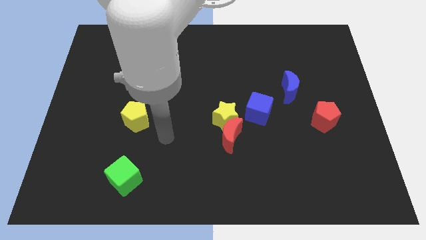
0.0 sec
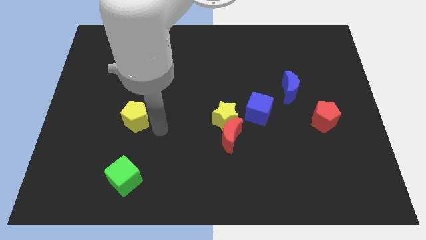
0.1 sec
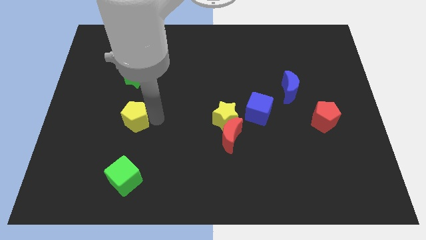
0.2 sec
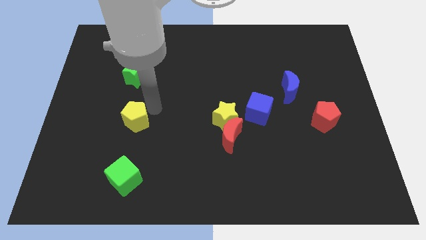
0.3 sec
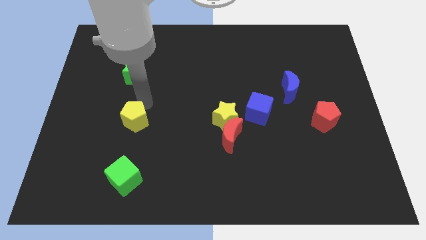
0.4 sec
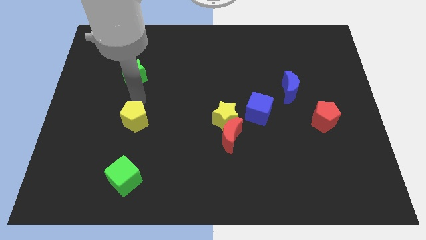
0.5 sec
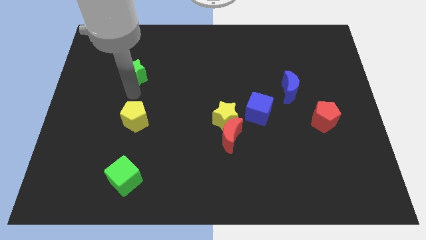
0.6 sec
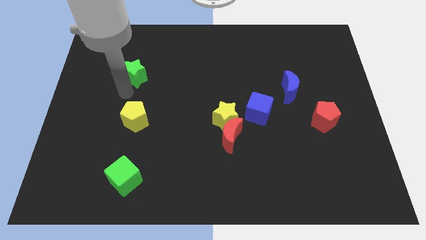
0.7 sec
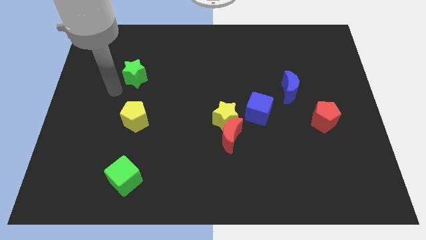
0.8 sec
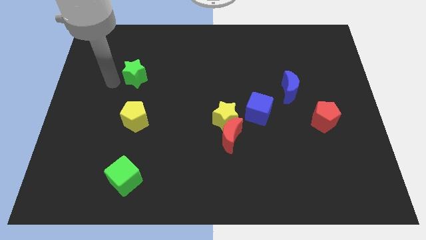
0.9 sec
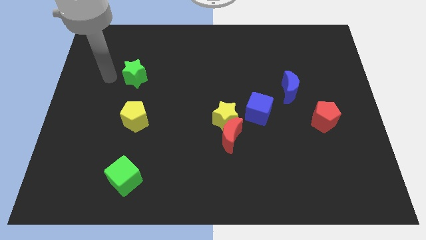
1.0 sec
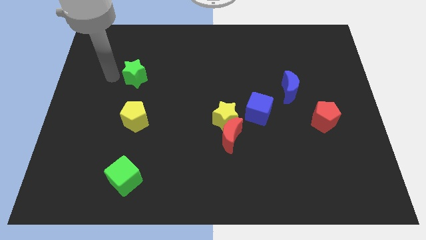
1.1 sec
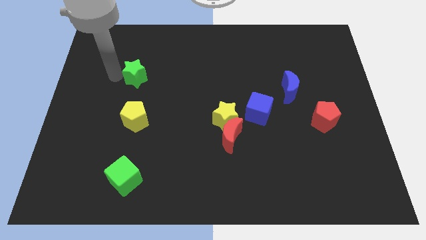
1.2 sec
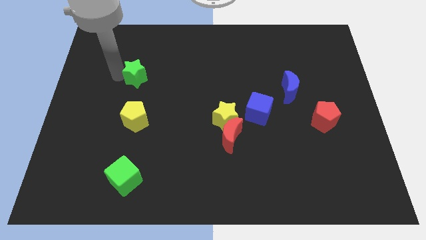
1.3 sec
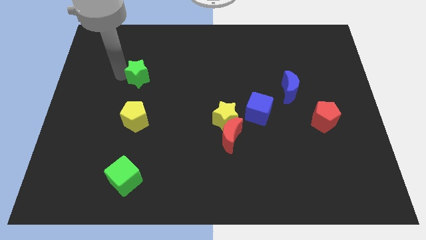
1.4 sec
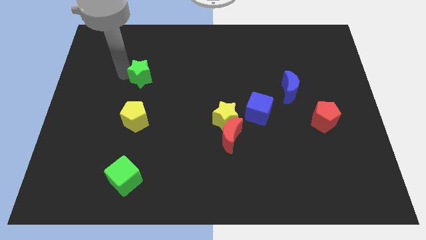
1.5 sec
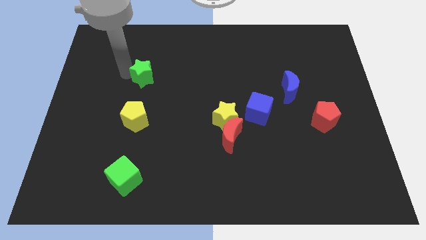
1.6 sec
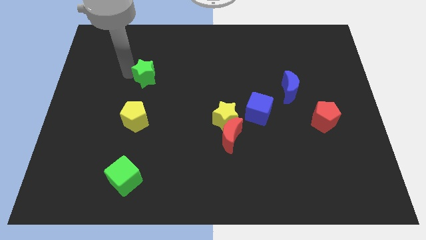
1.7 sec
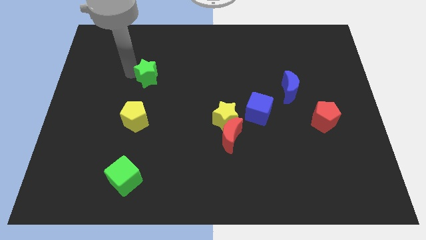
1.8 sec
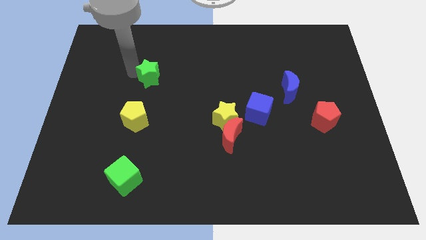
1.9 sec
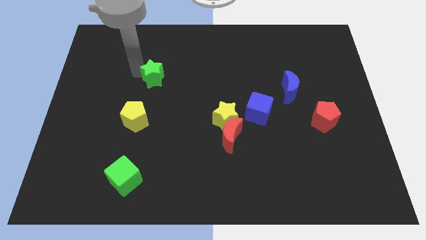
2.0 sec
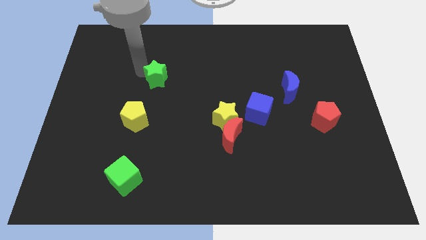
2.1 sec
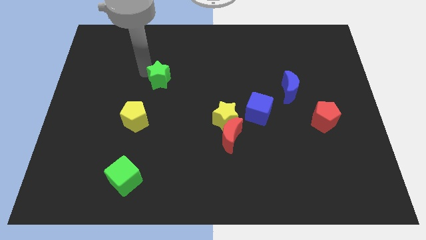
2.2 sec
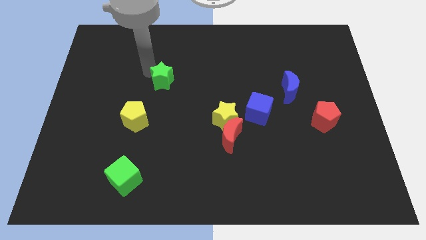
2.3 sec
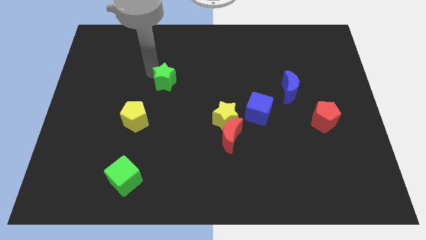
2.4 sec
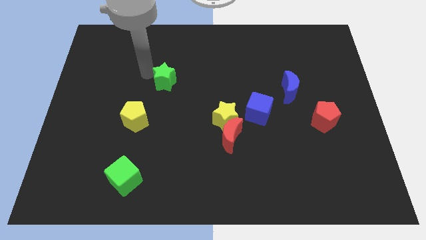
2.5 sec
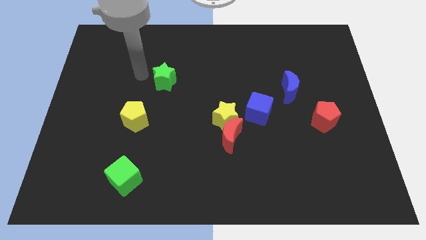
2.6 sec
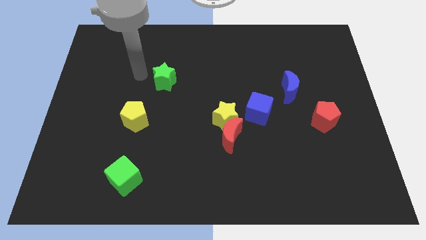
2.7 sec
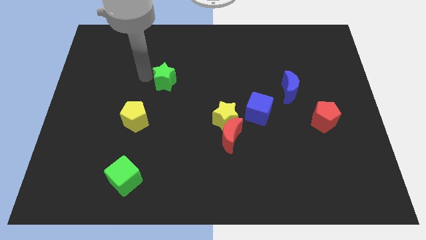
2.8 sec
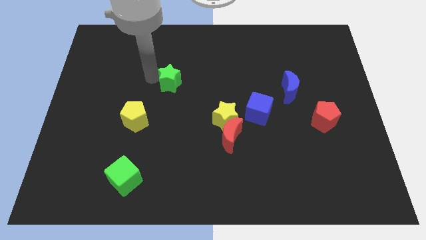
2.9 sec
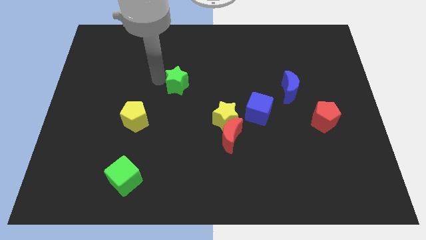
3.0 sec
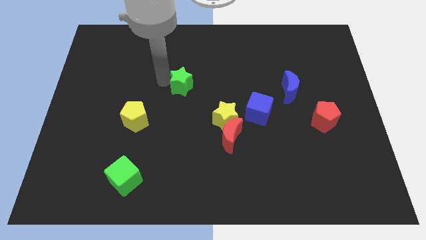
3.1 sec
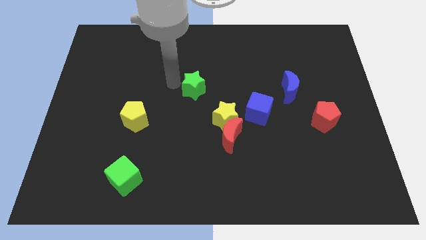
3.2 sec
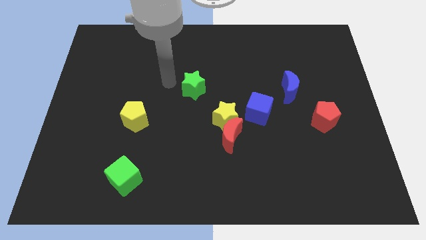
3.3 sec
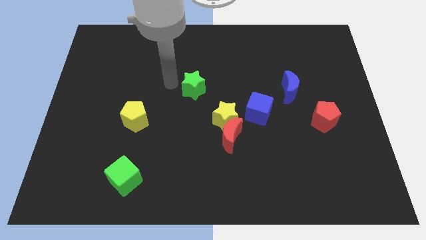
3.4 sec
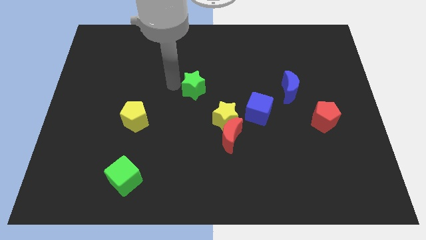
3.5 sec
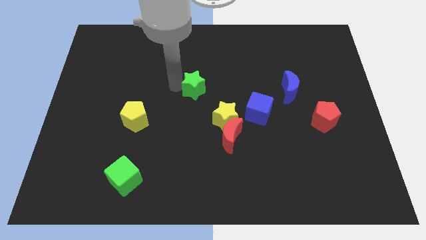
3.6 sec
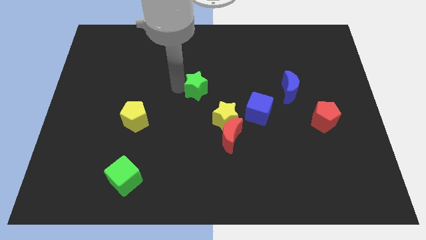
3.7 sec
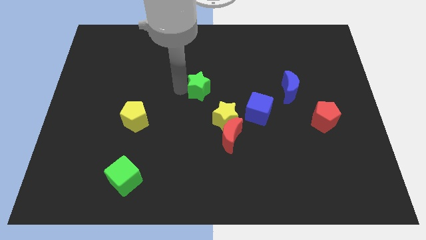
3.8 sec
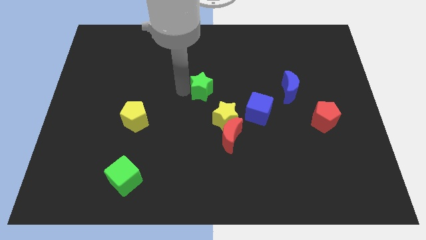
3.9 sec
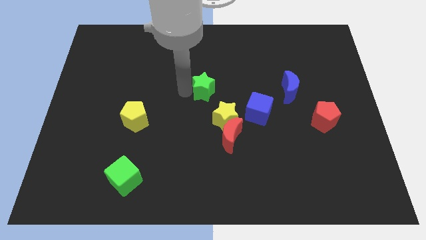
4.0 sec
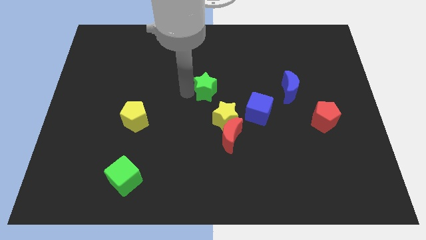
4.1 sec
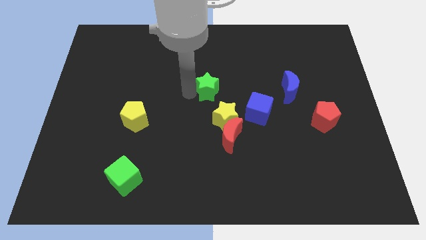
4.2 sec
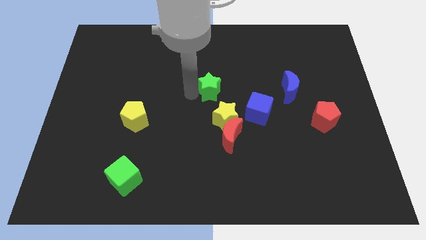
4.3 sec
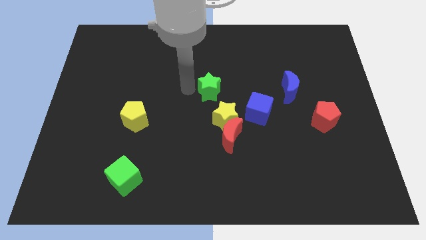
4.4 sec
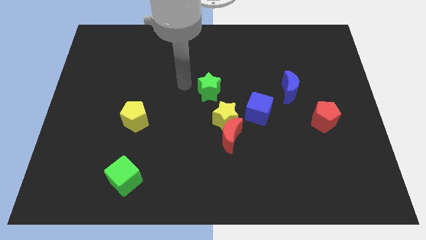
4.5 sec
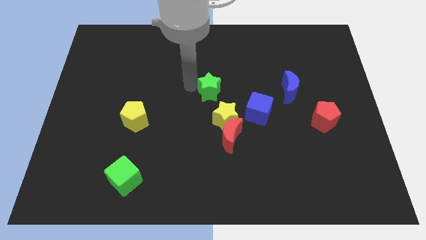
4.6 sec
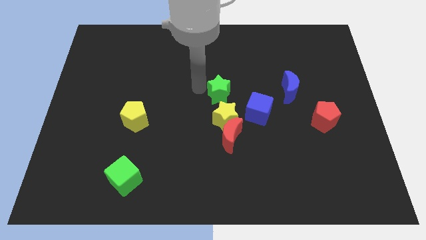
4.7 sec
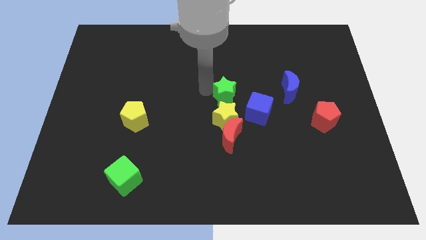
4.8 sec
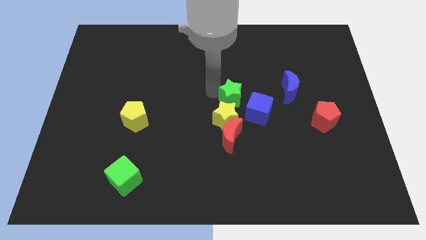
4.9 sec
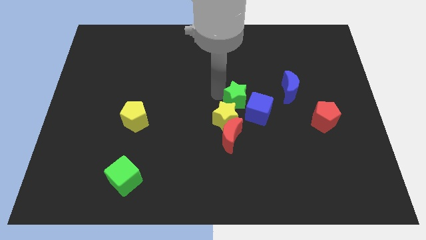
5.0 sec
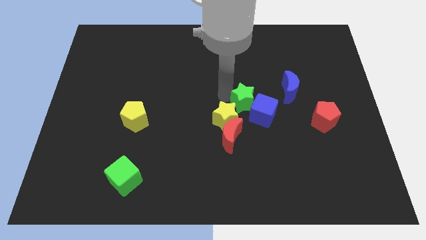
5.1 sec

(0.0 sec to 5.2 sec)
put the green star next to the blue cube

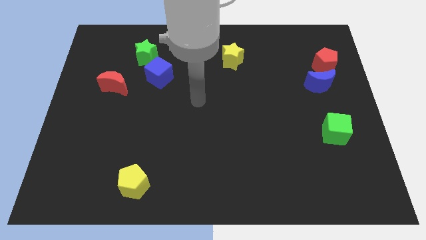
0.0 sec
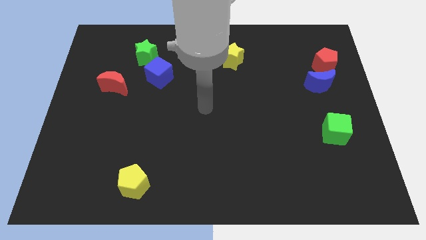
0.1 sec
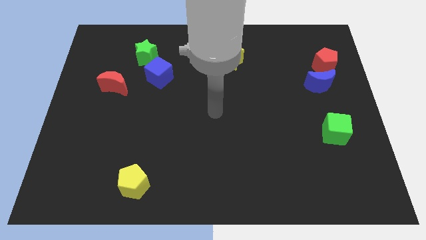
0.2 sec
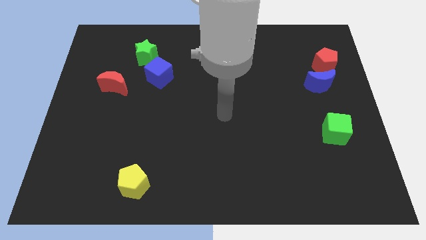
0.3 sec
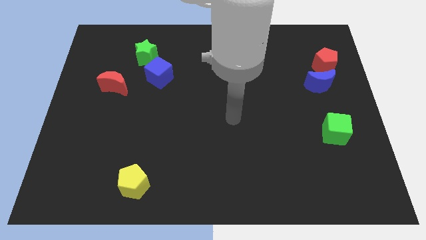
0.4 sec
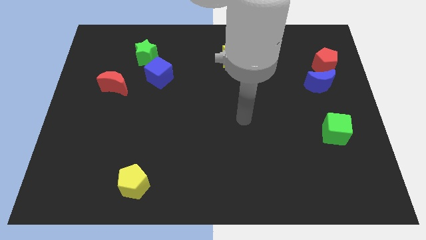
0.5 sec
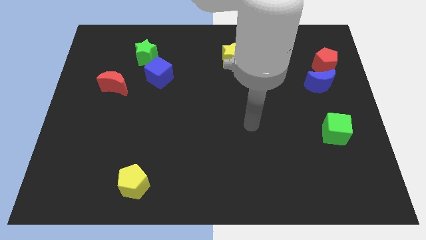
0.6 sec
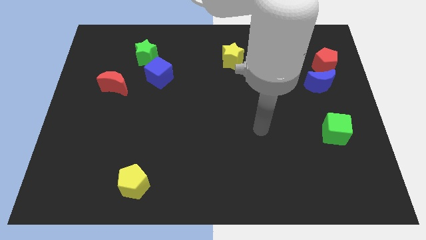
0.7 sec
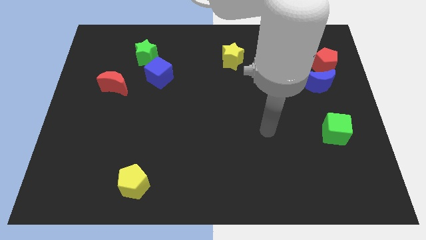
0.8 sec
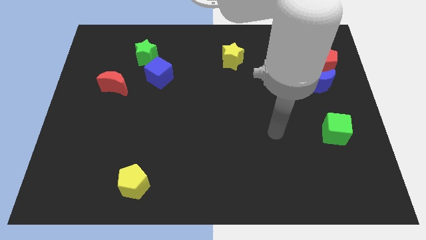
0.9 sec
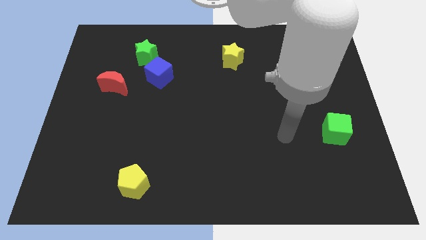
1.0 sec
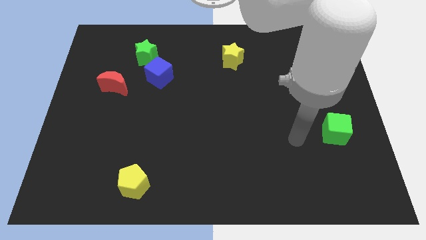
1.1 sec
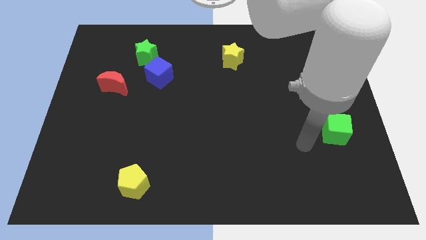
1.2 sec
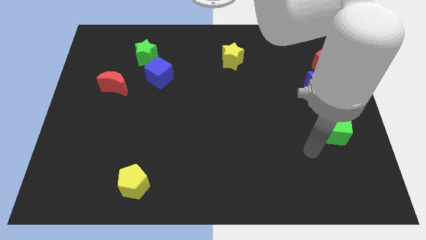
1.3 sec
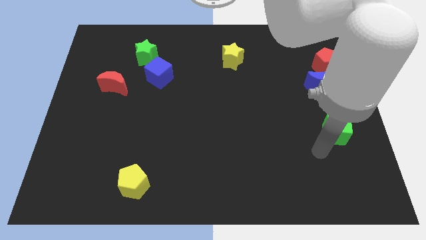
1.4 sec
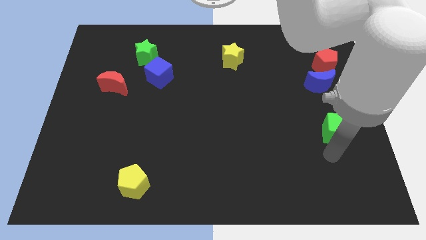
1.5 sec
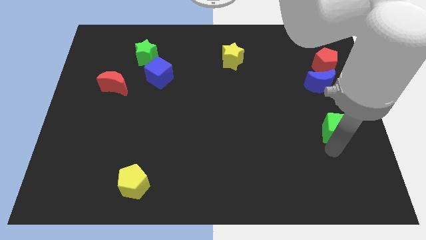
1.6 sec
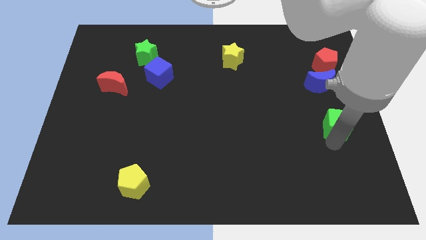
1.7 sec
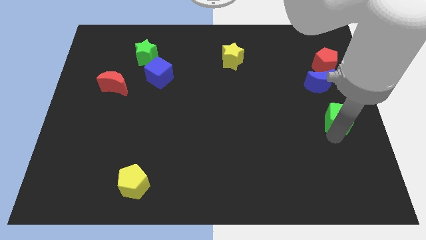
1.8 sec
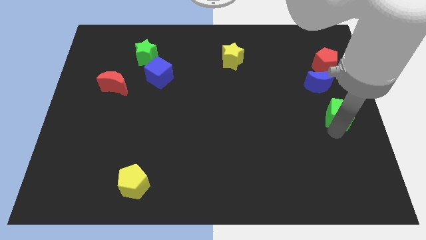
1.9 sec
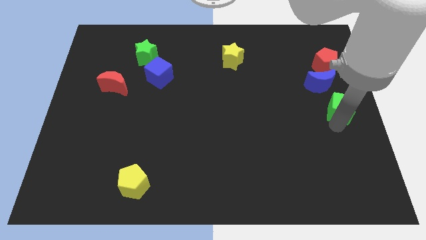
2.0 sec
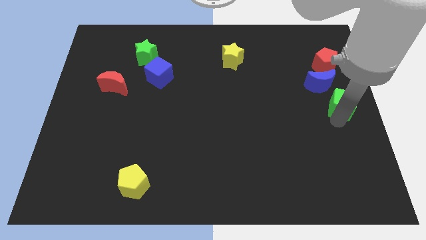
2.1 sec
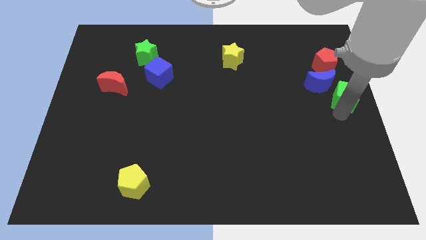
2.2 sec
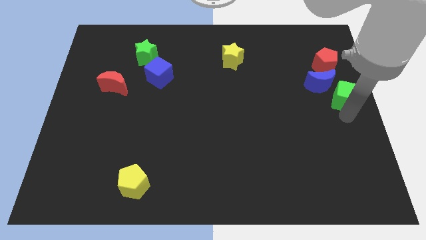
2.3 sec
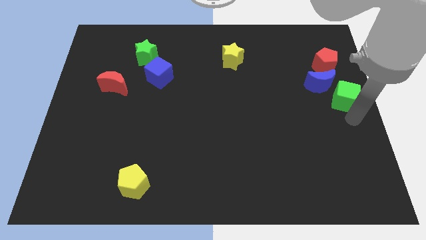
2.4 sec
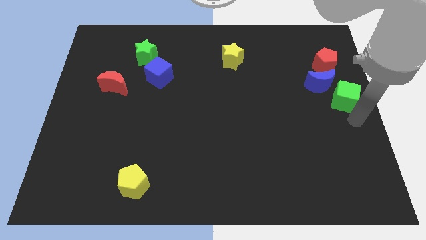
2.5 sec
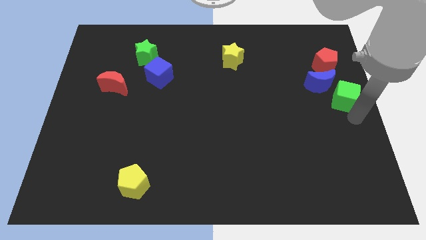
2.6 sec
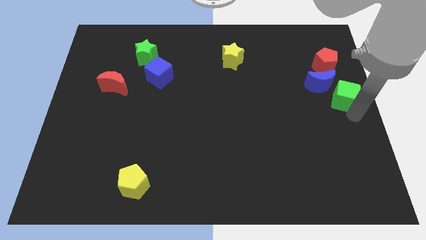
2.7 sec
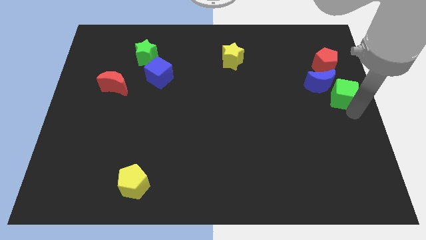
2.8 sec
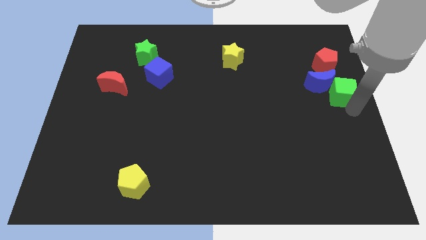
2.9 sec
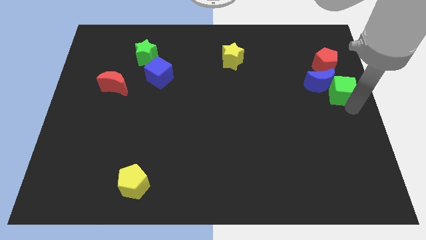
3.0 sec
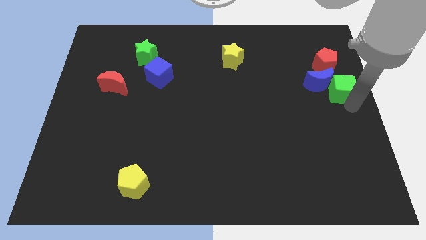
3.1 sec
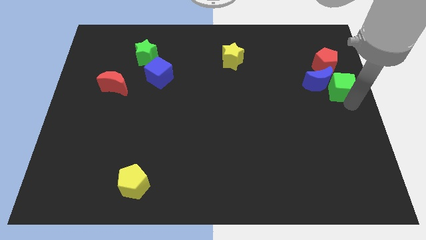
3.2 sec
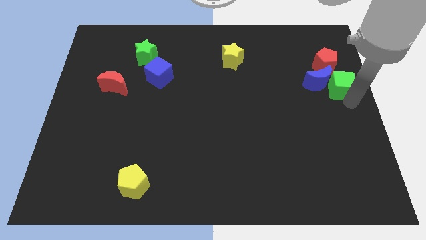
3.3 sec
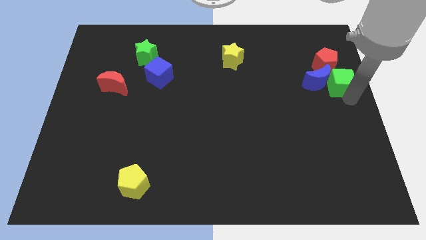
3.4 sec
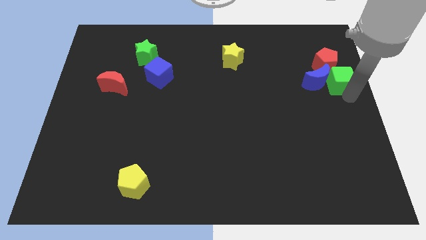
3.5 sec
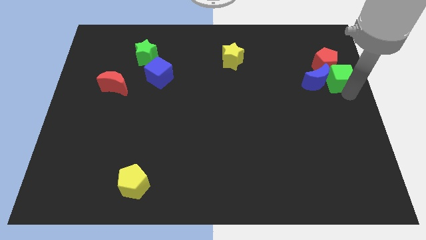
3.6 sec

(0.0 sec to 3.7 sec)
put the green cube close to the red pentagon
